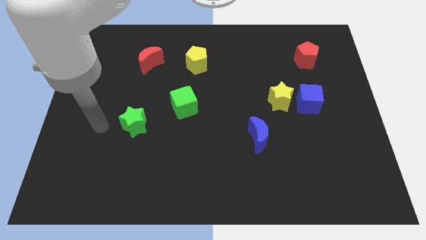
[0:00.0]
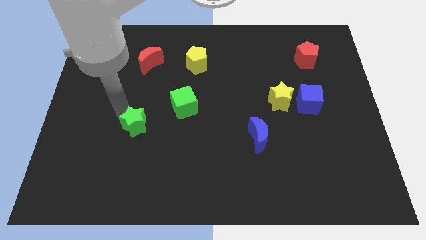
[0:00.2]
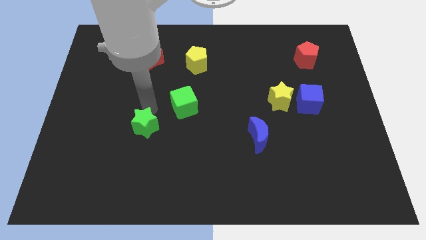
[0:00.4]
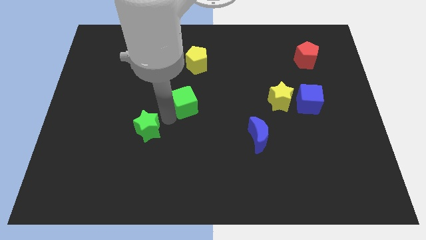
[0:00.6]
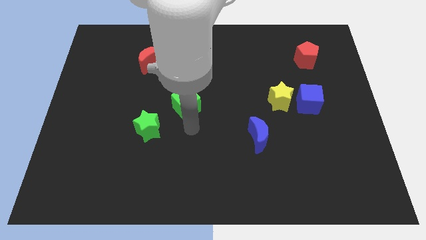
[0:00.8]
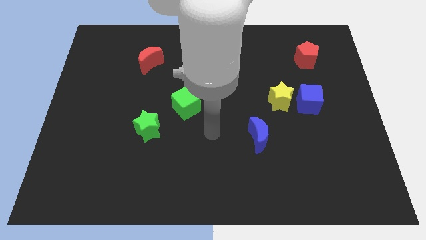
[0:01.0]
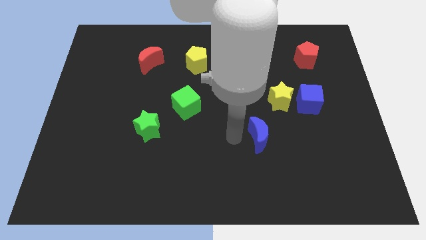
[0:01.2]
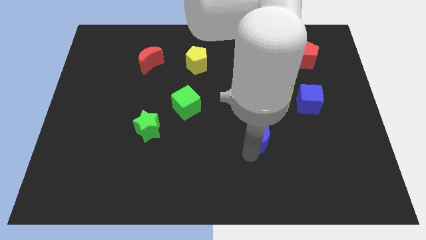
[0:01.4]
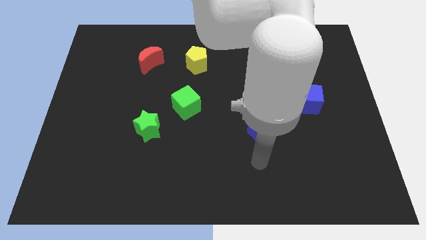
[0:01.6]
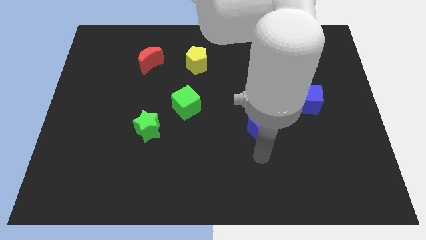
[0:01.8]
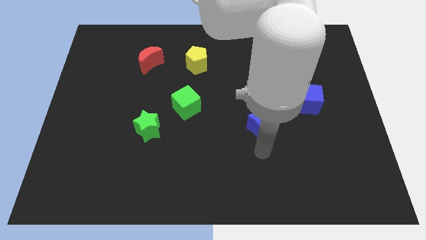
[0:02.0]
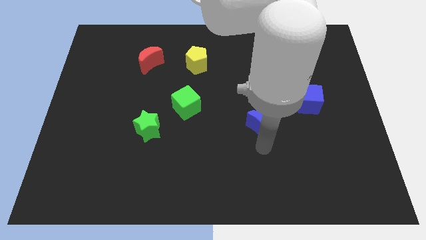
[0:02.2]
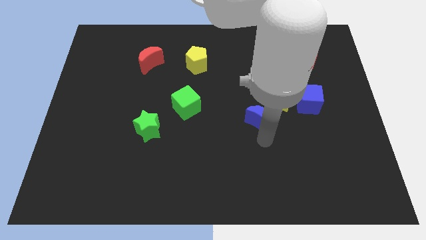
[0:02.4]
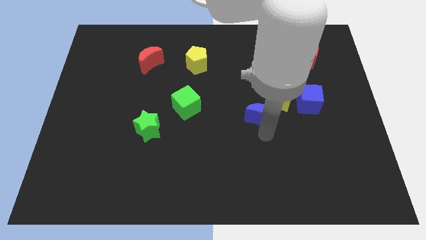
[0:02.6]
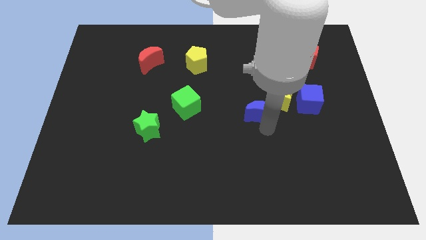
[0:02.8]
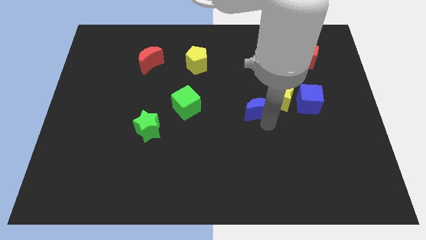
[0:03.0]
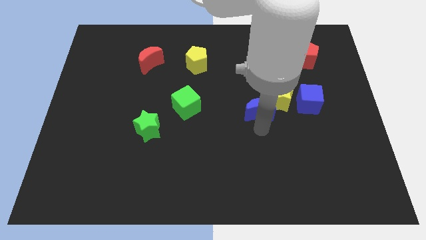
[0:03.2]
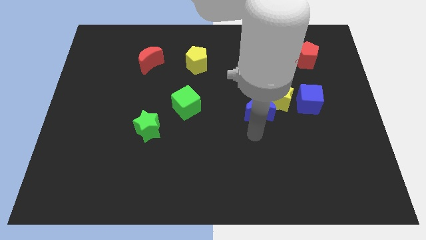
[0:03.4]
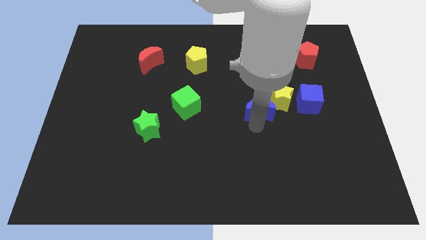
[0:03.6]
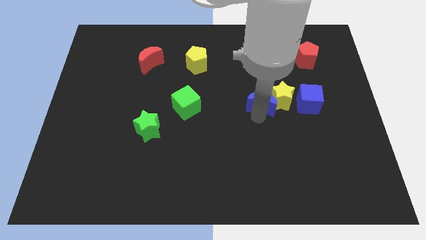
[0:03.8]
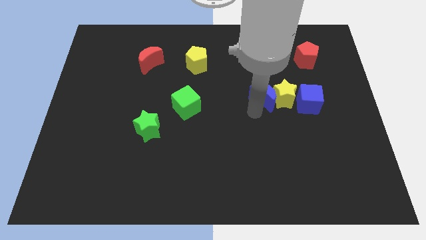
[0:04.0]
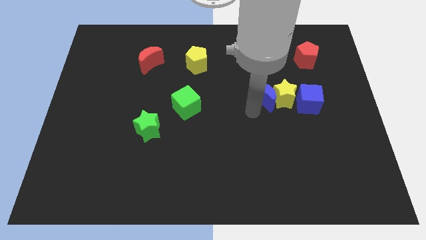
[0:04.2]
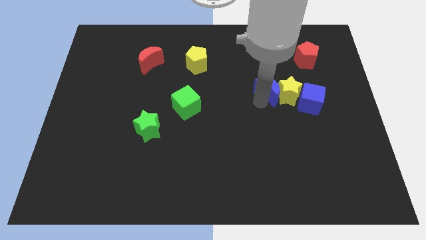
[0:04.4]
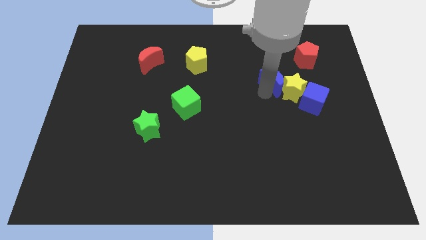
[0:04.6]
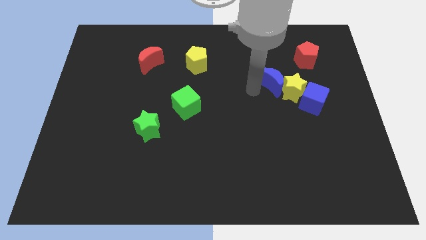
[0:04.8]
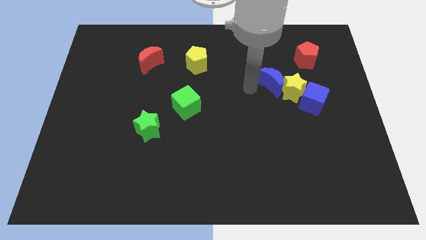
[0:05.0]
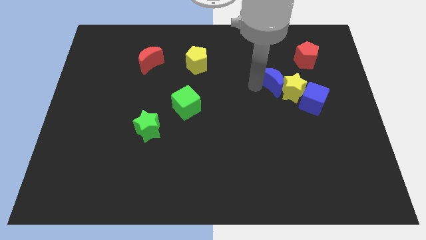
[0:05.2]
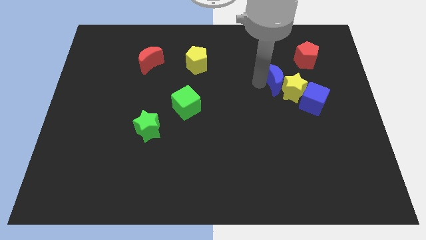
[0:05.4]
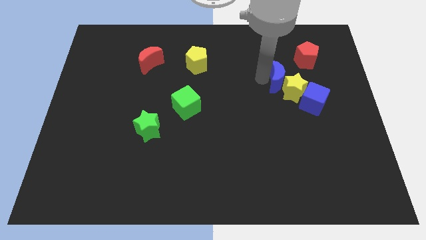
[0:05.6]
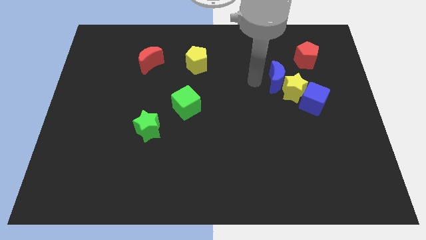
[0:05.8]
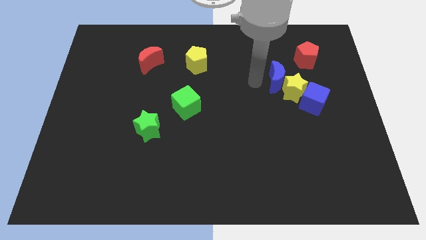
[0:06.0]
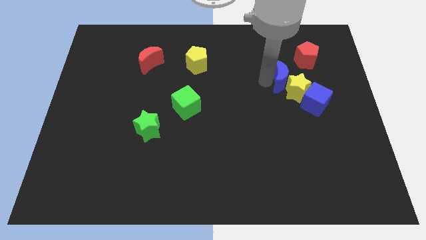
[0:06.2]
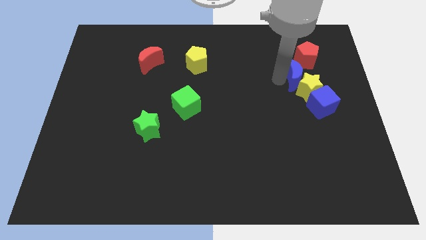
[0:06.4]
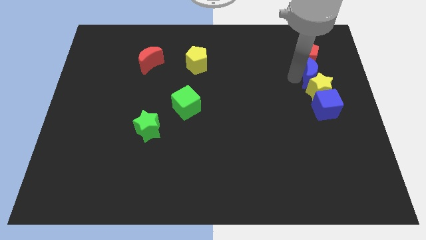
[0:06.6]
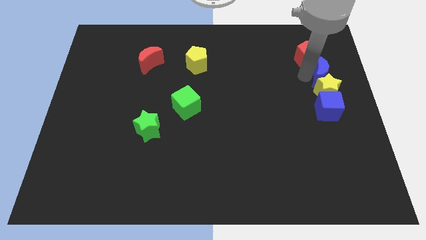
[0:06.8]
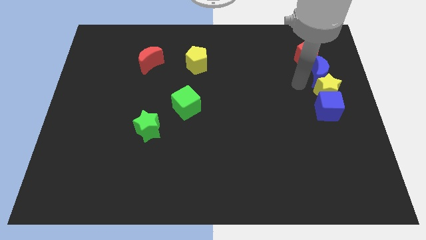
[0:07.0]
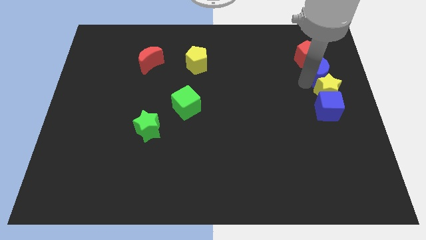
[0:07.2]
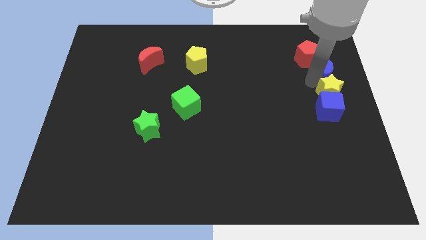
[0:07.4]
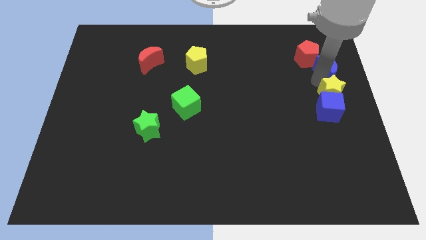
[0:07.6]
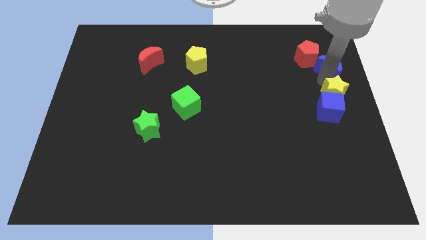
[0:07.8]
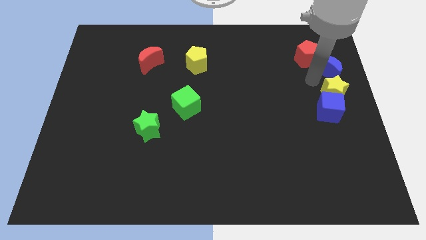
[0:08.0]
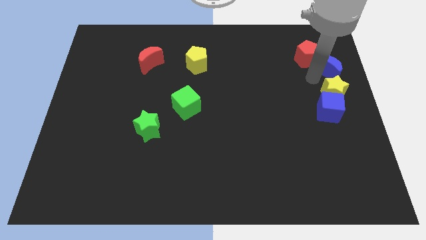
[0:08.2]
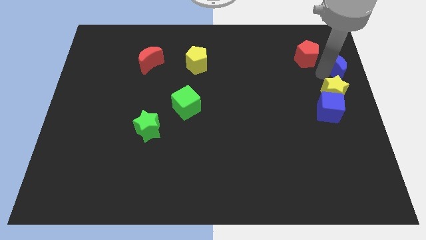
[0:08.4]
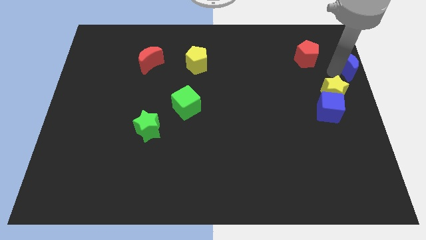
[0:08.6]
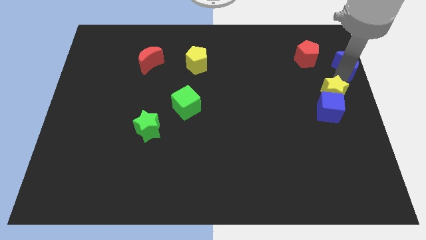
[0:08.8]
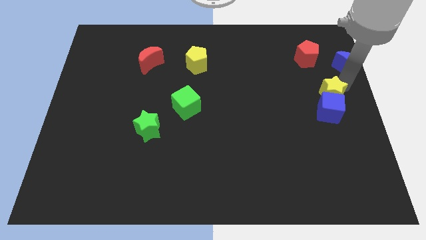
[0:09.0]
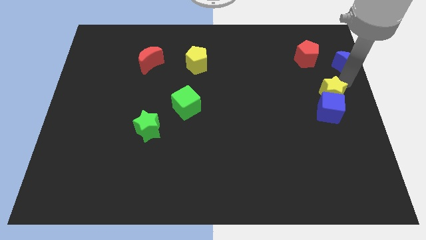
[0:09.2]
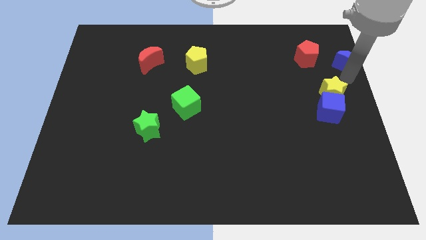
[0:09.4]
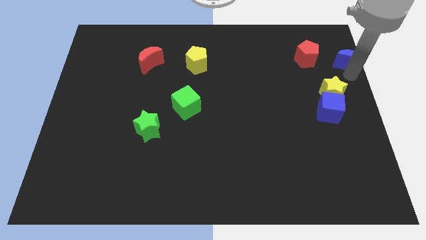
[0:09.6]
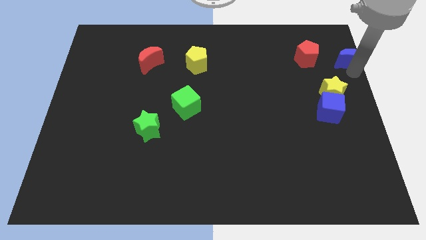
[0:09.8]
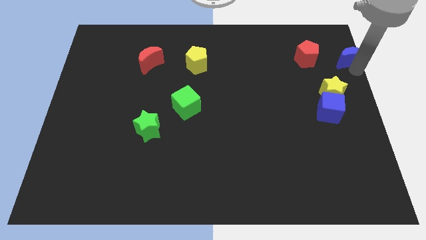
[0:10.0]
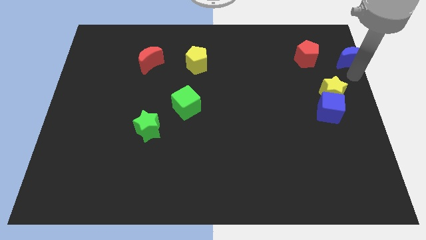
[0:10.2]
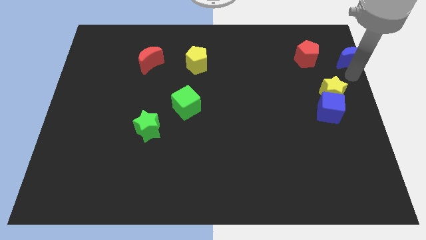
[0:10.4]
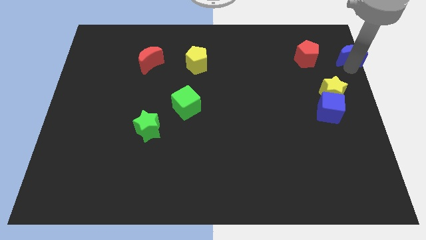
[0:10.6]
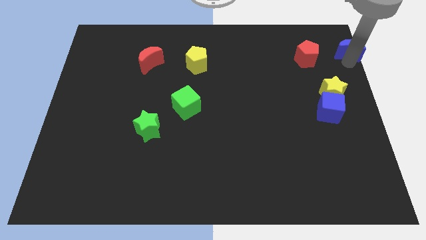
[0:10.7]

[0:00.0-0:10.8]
push the blue moon to the top right

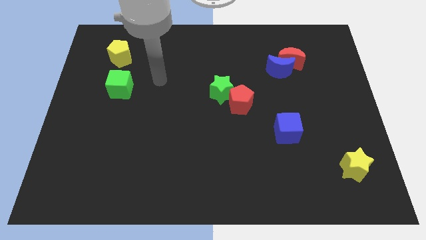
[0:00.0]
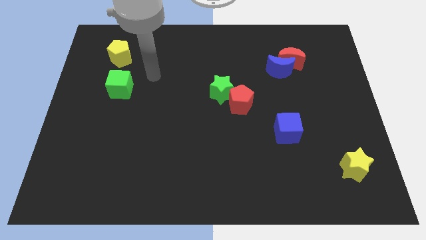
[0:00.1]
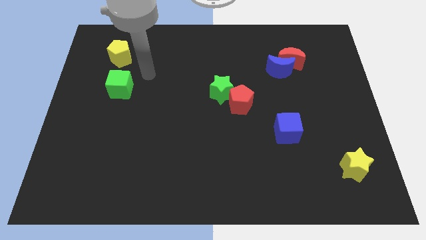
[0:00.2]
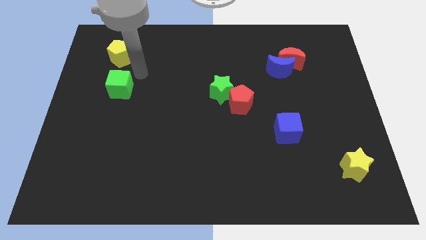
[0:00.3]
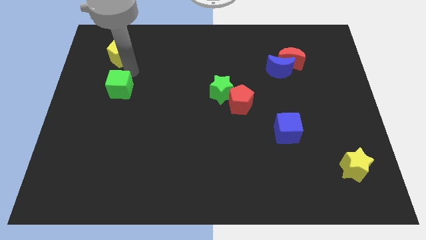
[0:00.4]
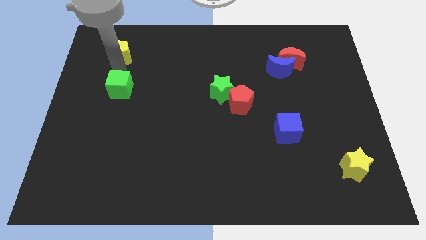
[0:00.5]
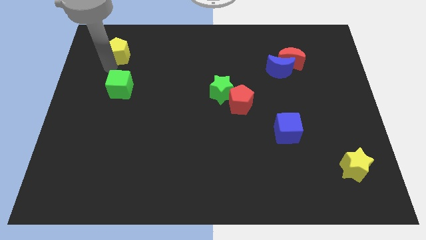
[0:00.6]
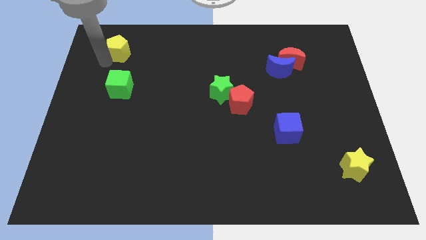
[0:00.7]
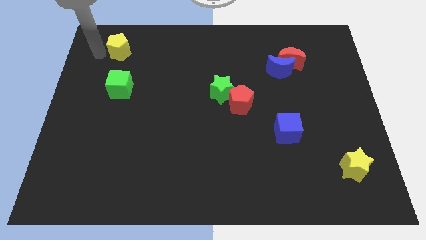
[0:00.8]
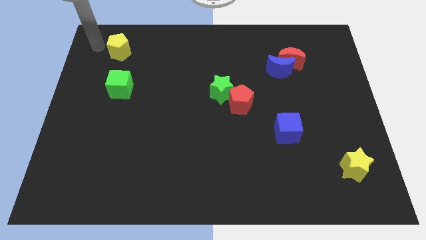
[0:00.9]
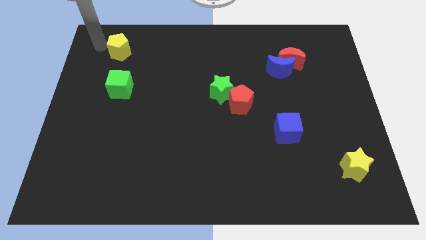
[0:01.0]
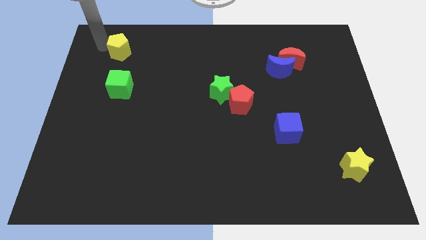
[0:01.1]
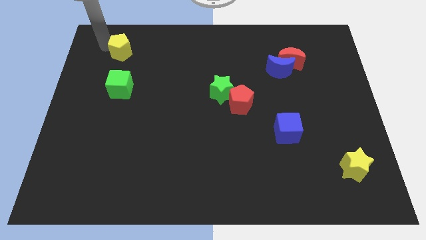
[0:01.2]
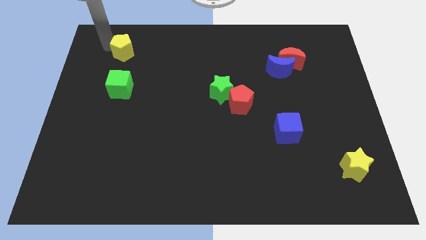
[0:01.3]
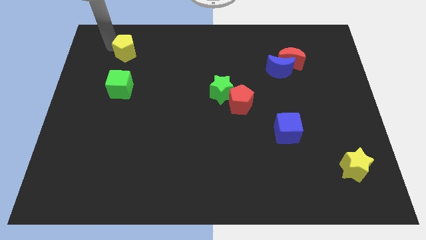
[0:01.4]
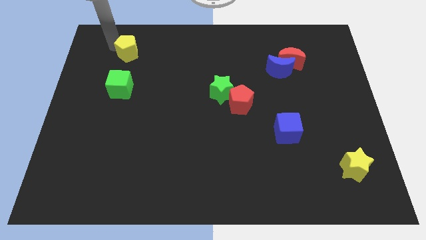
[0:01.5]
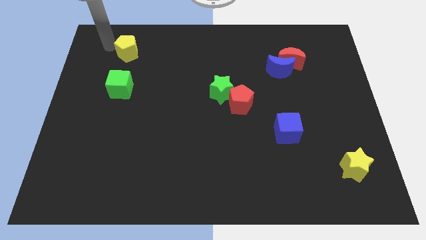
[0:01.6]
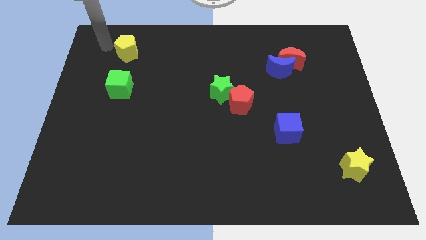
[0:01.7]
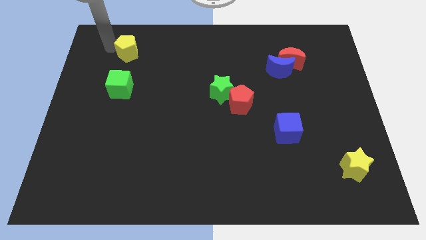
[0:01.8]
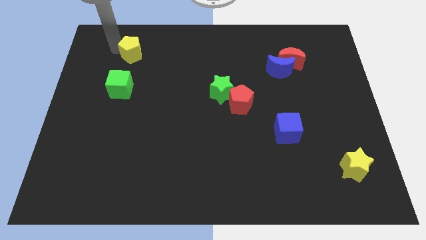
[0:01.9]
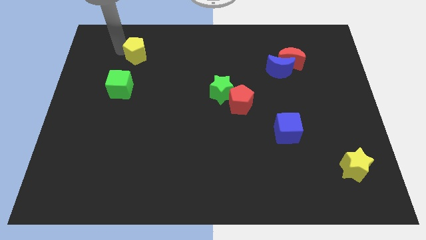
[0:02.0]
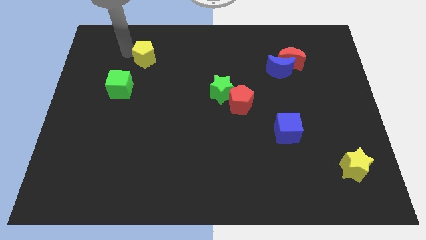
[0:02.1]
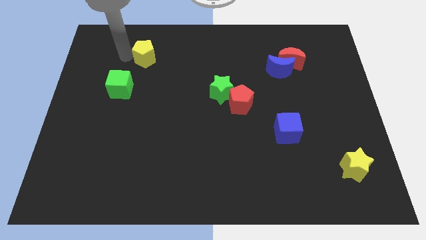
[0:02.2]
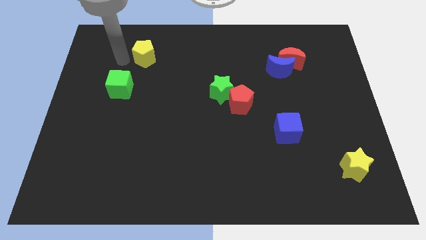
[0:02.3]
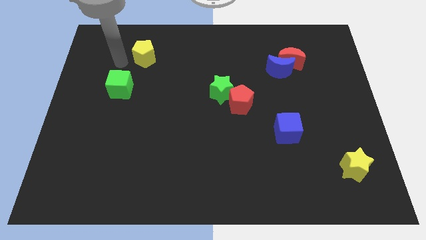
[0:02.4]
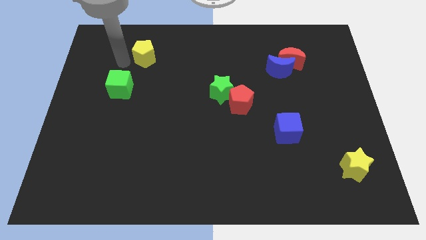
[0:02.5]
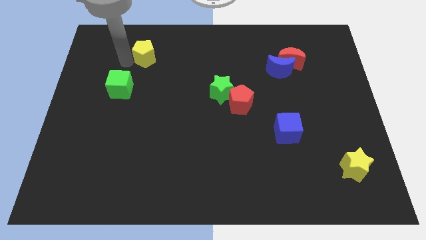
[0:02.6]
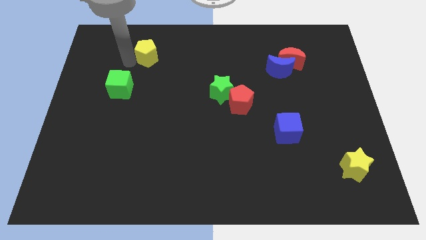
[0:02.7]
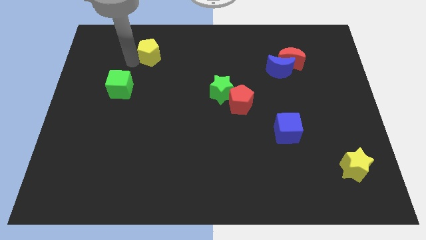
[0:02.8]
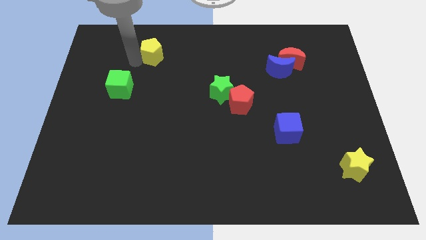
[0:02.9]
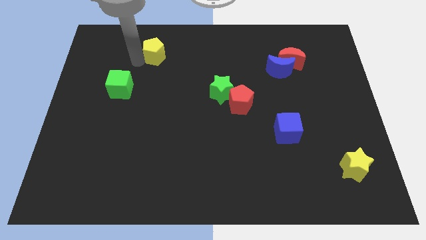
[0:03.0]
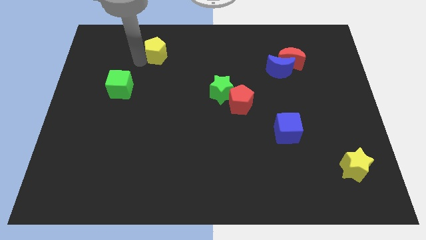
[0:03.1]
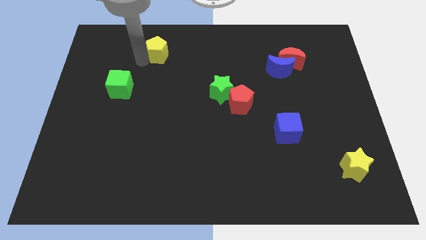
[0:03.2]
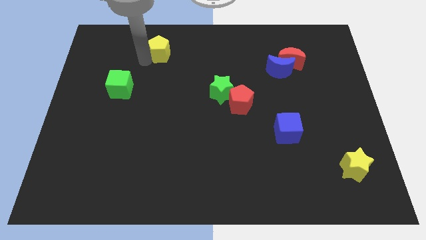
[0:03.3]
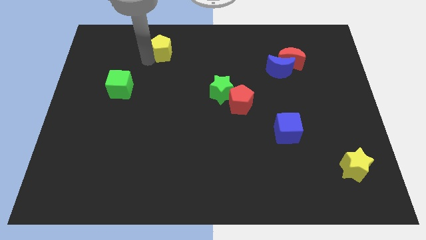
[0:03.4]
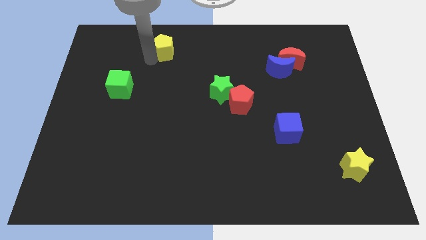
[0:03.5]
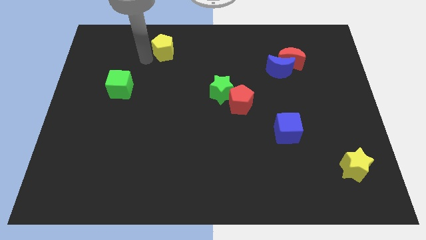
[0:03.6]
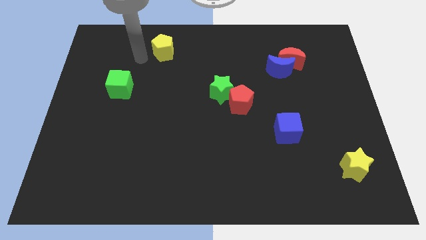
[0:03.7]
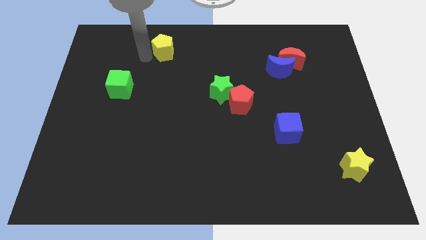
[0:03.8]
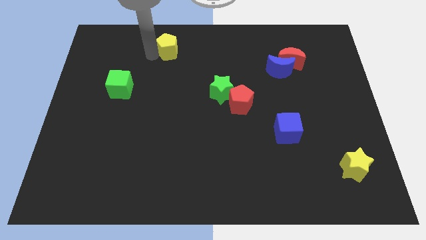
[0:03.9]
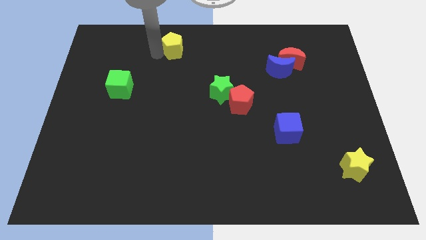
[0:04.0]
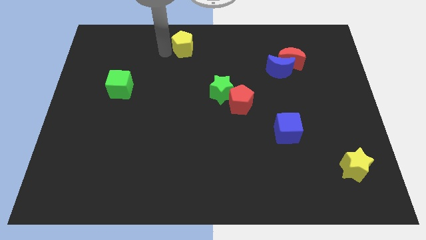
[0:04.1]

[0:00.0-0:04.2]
slide the yellow pentagon to the top side
